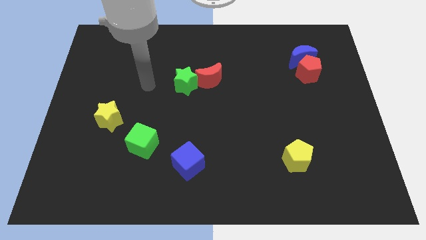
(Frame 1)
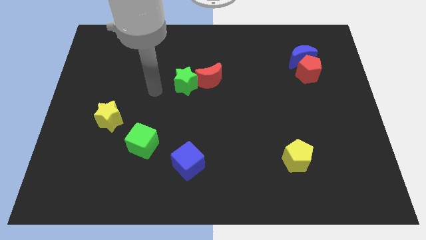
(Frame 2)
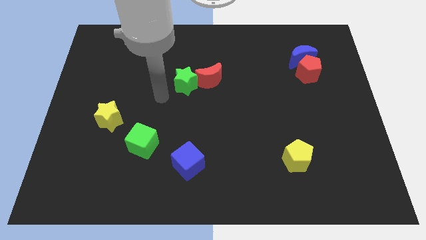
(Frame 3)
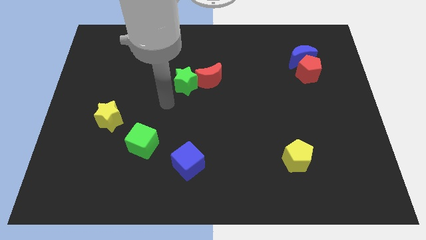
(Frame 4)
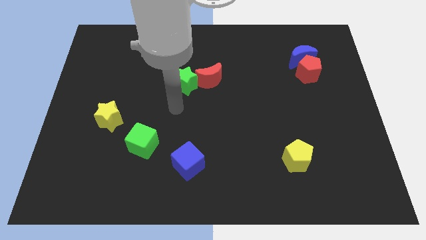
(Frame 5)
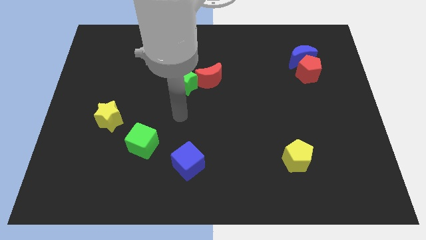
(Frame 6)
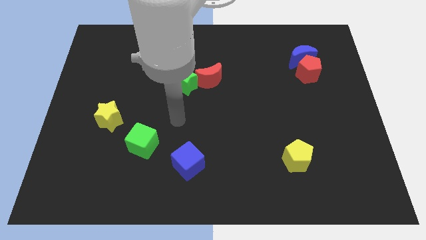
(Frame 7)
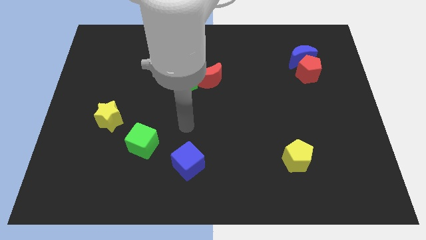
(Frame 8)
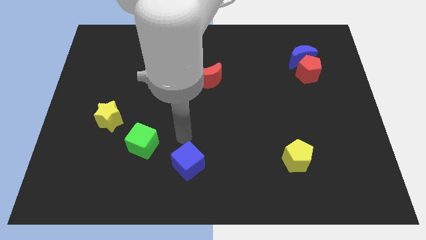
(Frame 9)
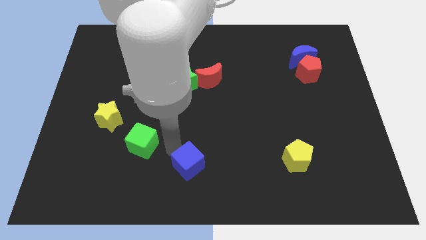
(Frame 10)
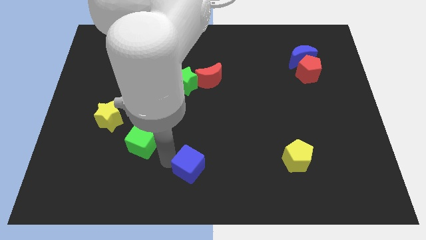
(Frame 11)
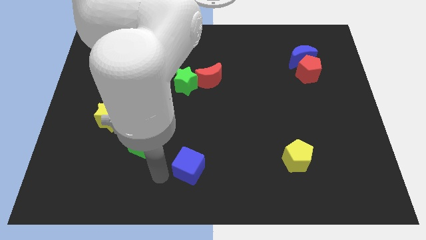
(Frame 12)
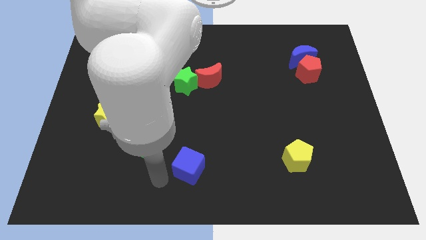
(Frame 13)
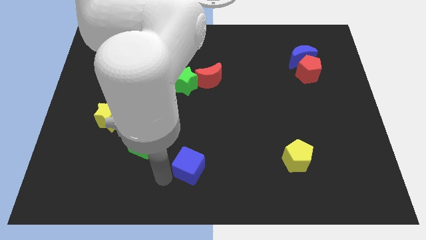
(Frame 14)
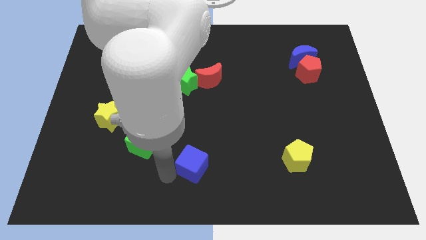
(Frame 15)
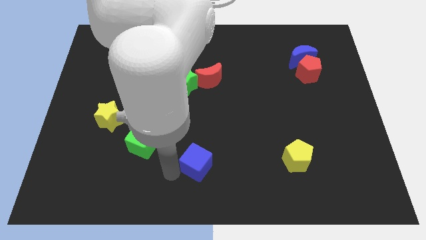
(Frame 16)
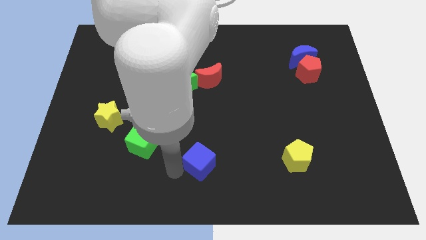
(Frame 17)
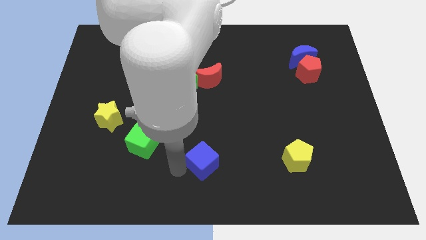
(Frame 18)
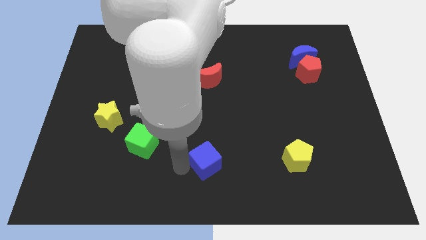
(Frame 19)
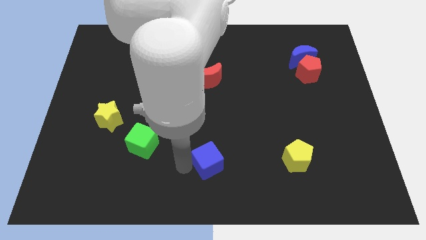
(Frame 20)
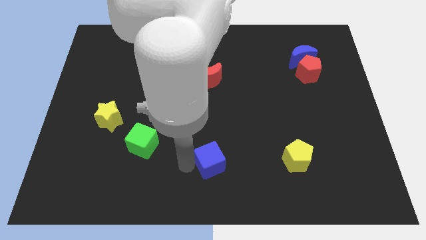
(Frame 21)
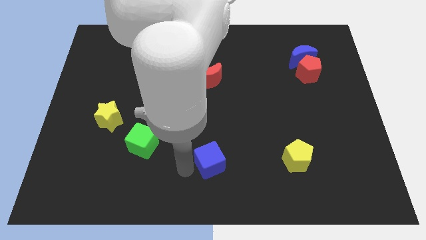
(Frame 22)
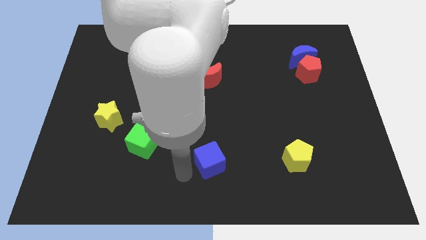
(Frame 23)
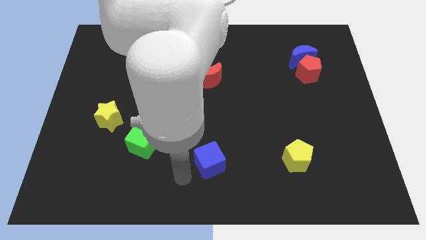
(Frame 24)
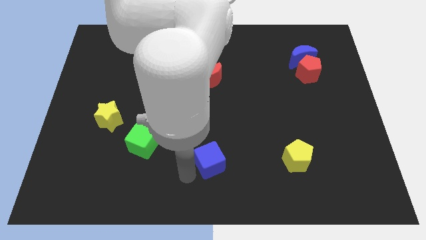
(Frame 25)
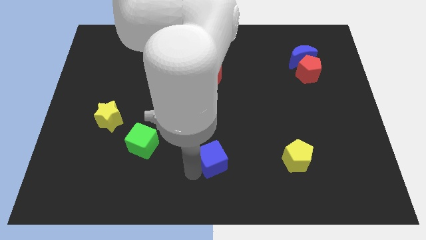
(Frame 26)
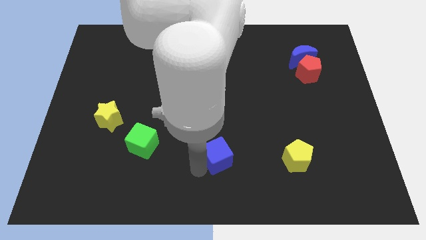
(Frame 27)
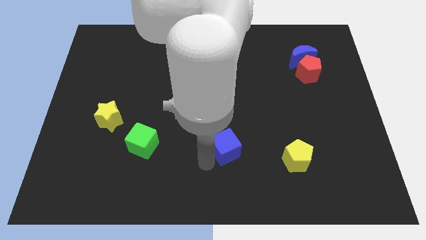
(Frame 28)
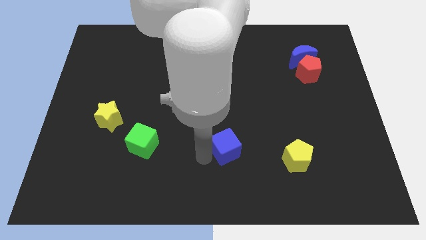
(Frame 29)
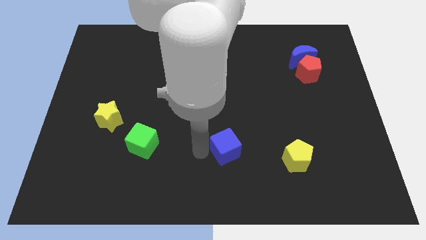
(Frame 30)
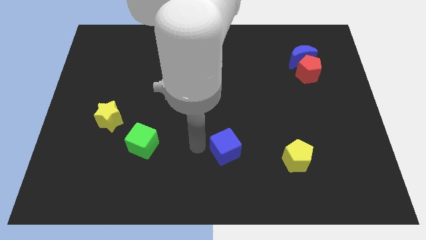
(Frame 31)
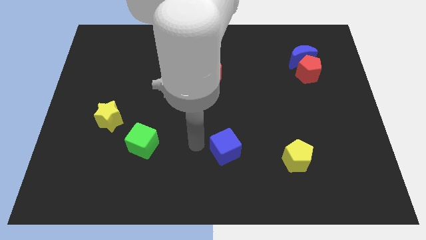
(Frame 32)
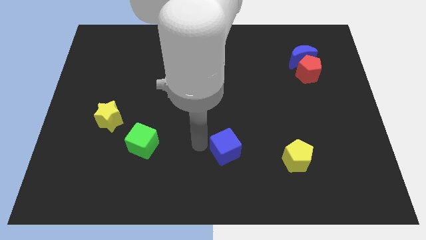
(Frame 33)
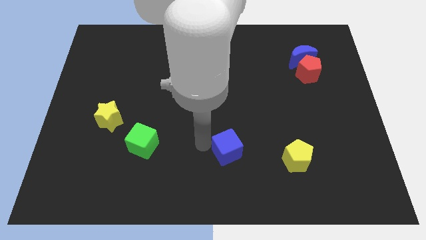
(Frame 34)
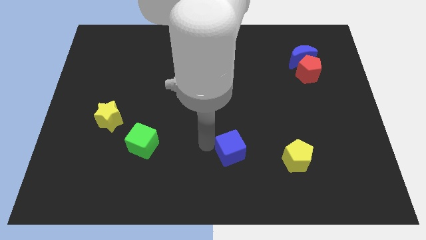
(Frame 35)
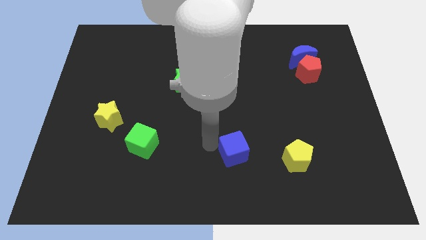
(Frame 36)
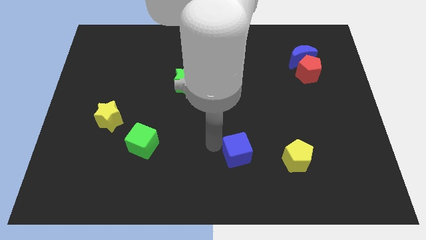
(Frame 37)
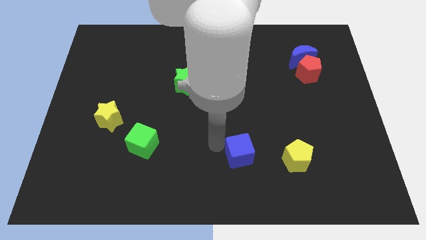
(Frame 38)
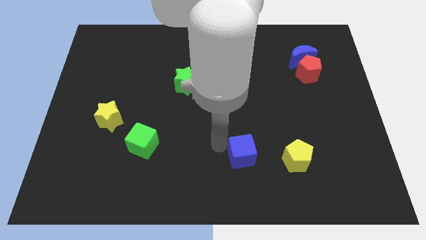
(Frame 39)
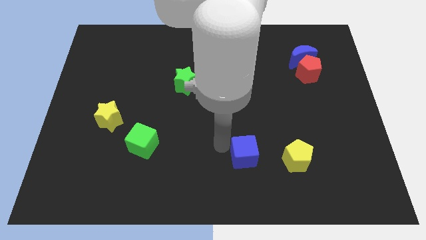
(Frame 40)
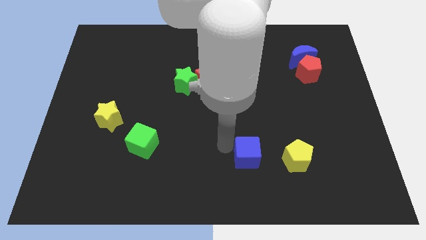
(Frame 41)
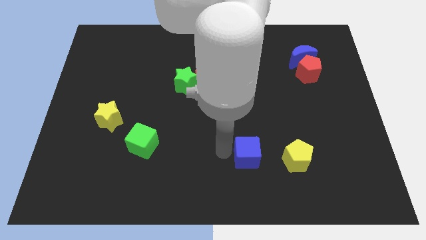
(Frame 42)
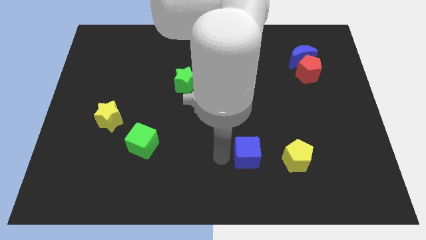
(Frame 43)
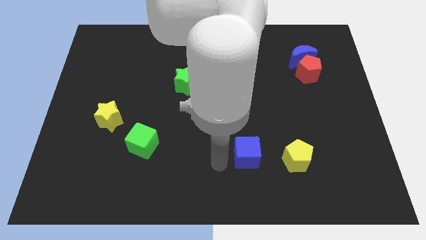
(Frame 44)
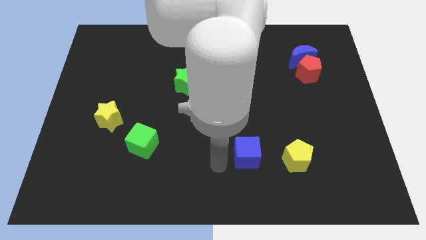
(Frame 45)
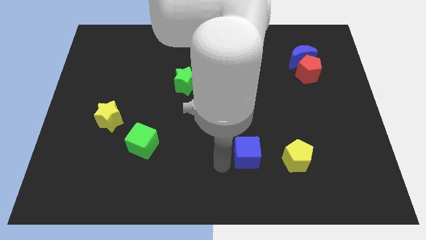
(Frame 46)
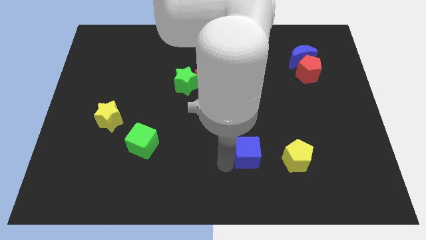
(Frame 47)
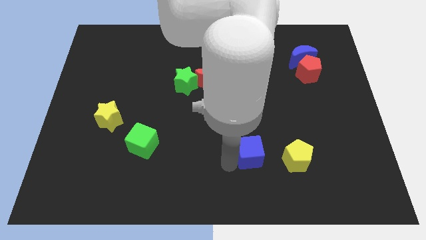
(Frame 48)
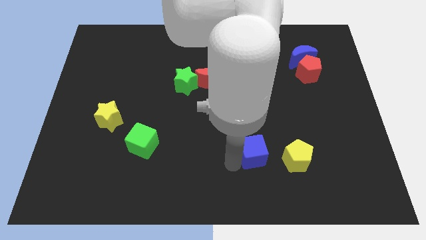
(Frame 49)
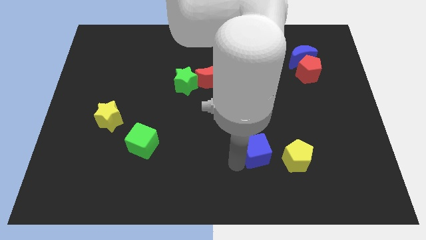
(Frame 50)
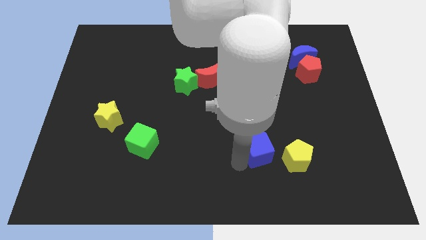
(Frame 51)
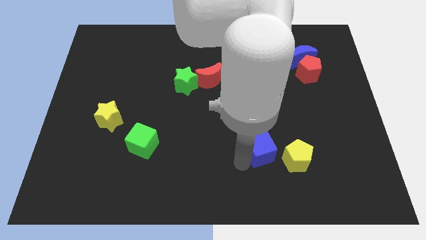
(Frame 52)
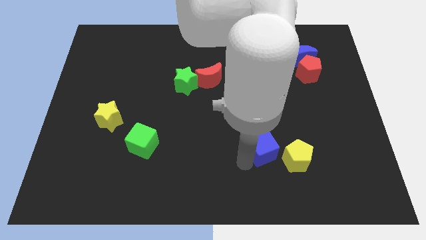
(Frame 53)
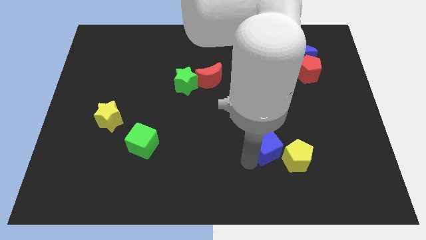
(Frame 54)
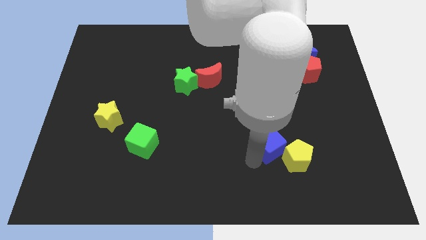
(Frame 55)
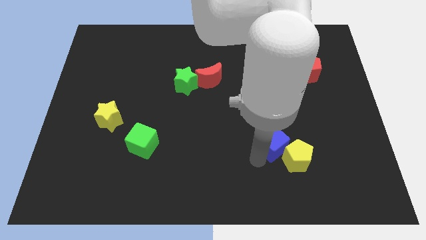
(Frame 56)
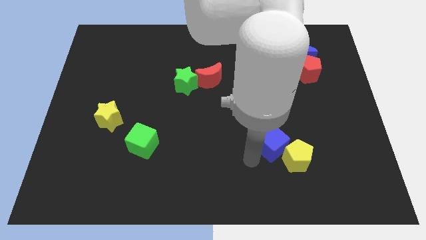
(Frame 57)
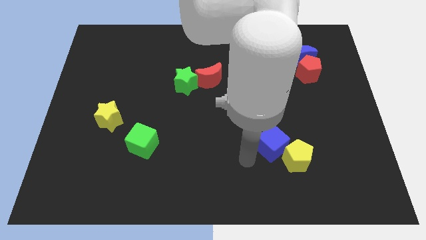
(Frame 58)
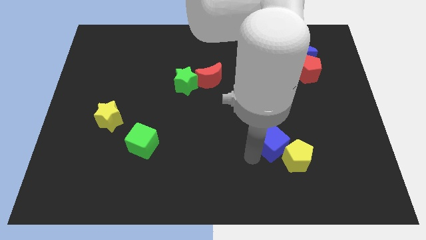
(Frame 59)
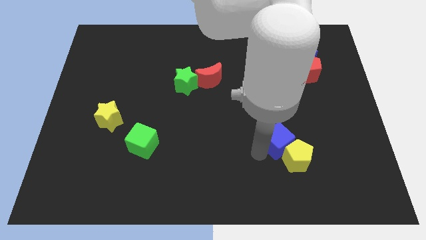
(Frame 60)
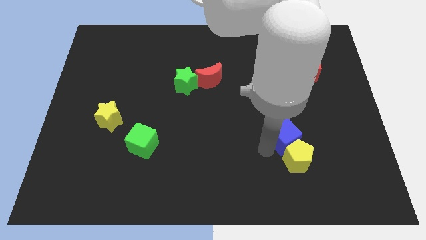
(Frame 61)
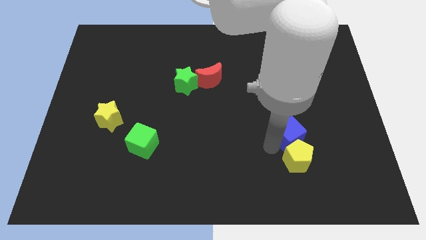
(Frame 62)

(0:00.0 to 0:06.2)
move the blue cube to the top right of the yellow pentagon
